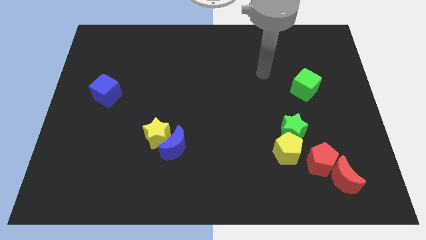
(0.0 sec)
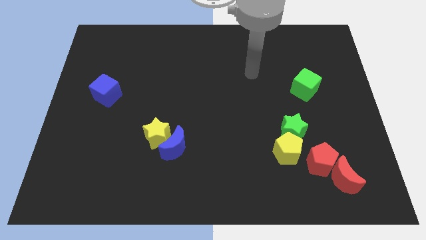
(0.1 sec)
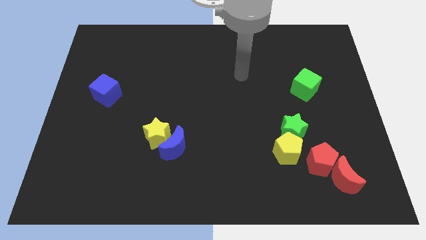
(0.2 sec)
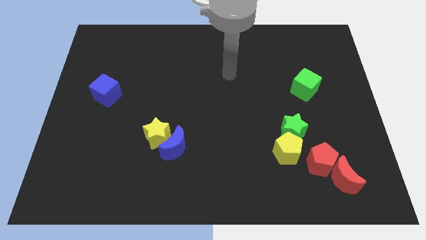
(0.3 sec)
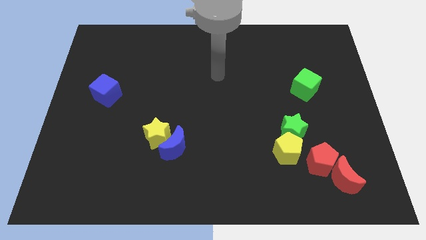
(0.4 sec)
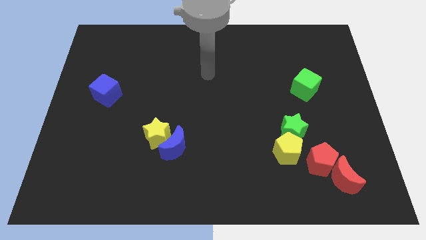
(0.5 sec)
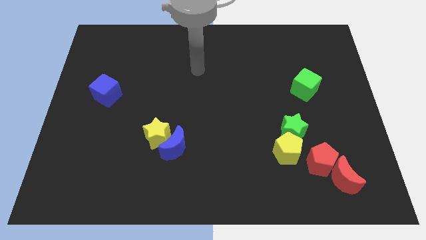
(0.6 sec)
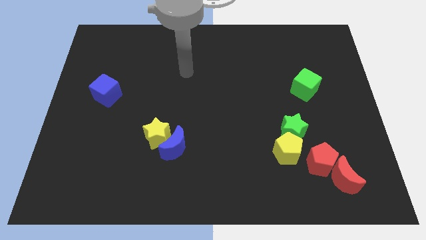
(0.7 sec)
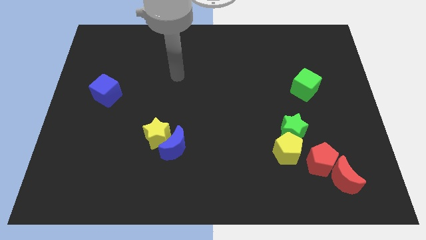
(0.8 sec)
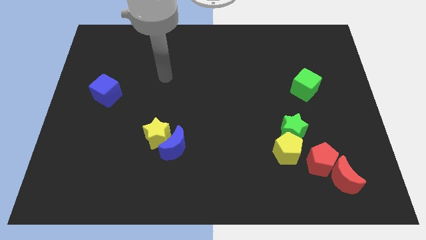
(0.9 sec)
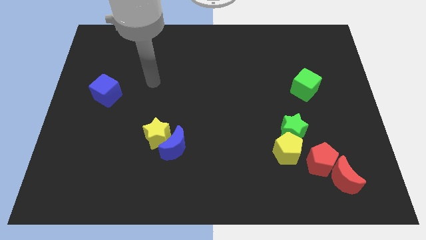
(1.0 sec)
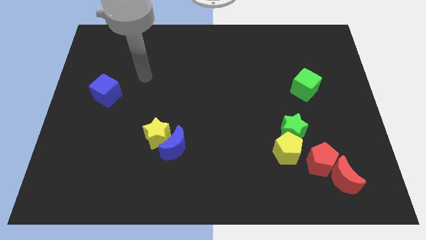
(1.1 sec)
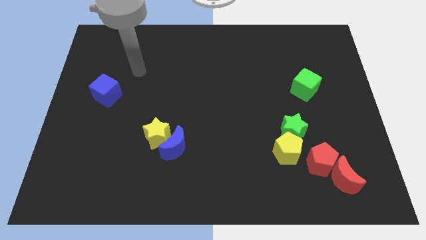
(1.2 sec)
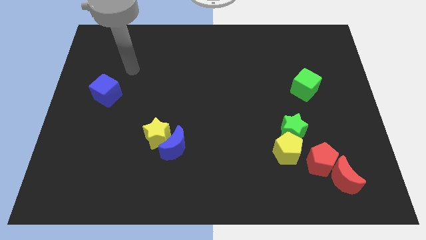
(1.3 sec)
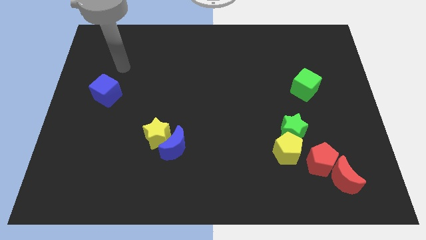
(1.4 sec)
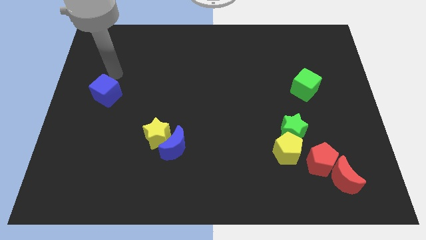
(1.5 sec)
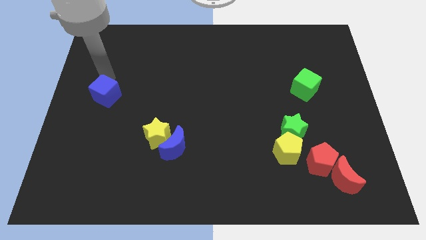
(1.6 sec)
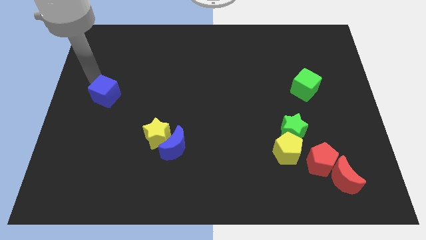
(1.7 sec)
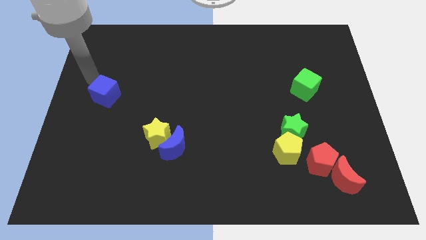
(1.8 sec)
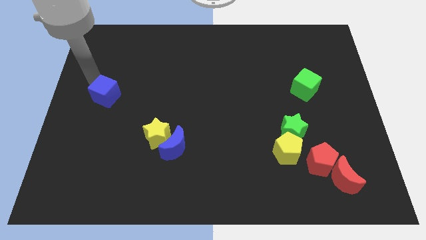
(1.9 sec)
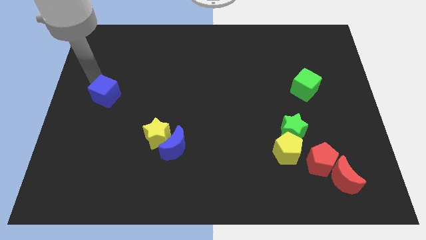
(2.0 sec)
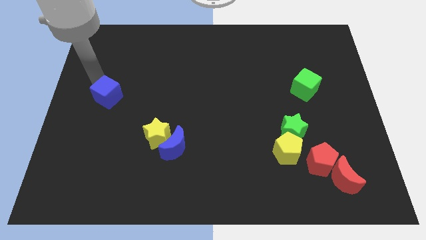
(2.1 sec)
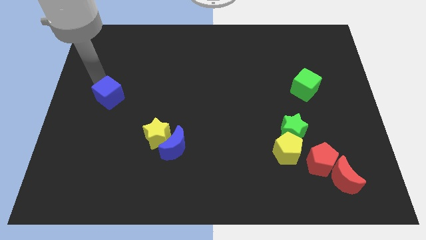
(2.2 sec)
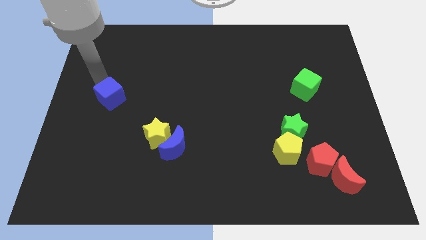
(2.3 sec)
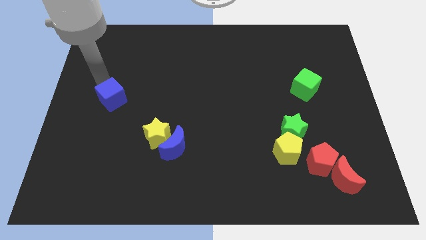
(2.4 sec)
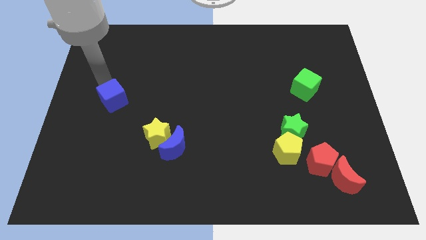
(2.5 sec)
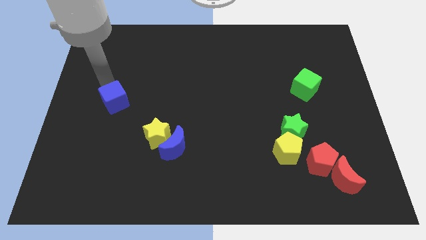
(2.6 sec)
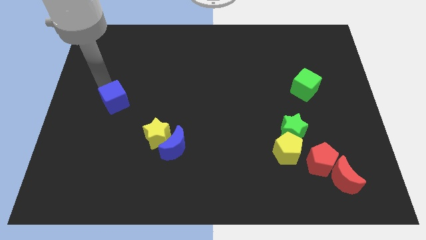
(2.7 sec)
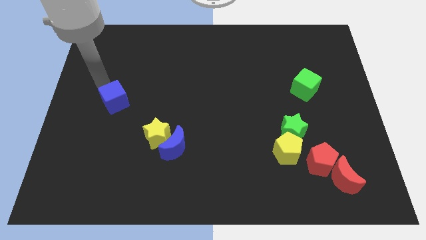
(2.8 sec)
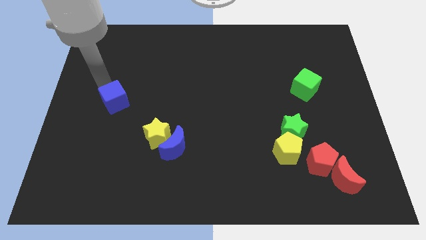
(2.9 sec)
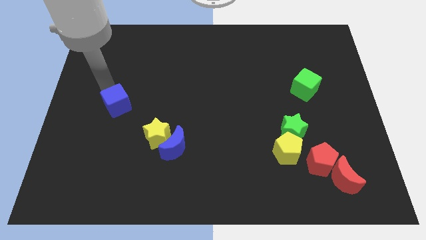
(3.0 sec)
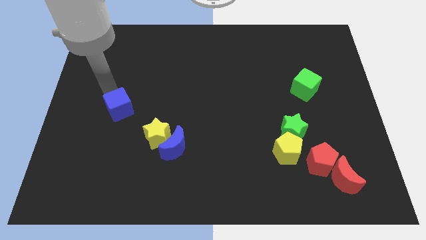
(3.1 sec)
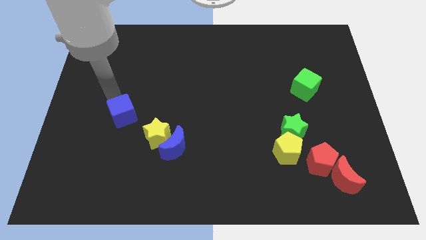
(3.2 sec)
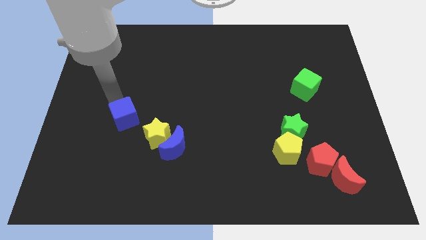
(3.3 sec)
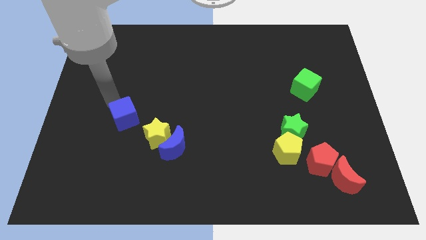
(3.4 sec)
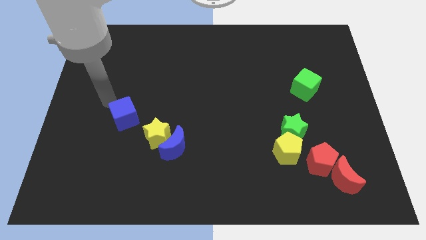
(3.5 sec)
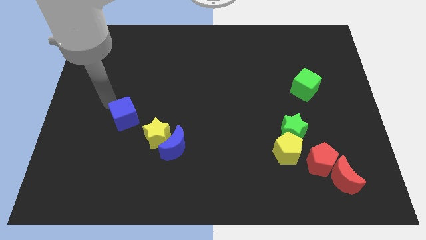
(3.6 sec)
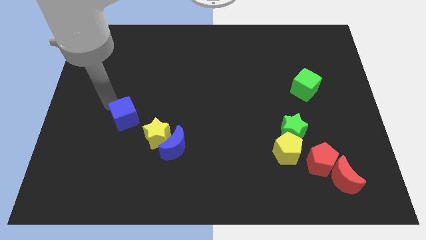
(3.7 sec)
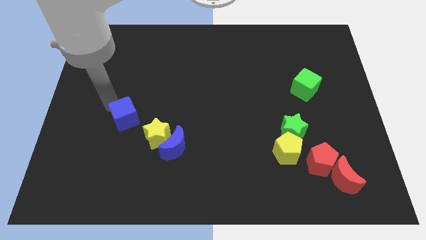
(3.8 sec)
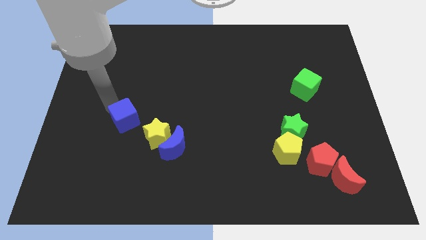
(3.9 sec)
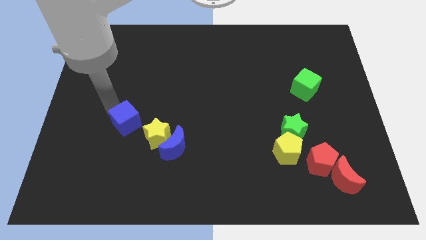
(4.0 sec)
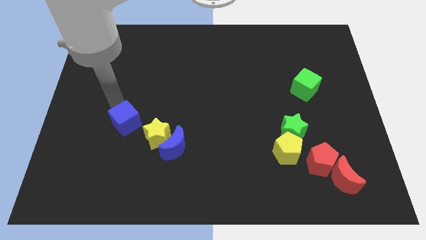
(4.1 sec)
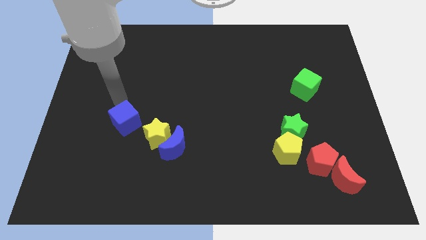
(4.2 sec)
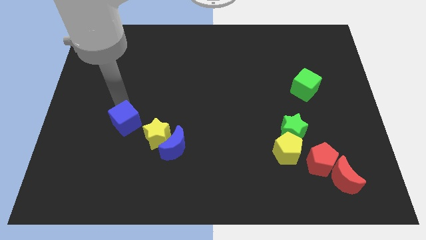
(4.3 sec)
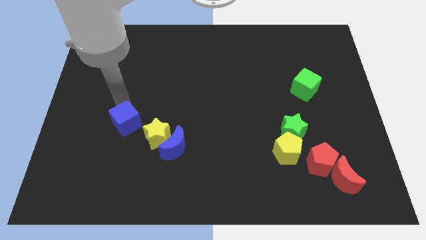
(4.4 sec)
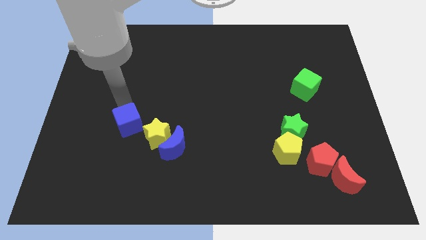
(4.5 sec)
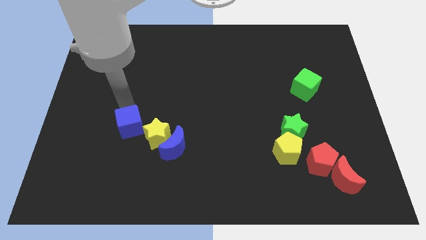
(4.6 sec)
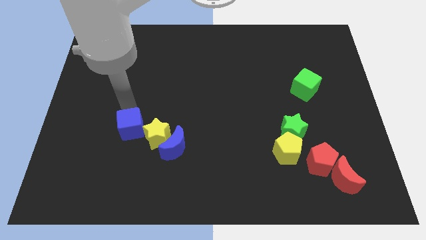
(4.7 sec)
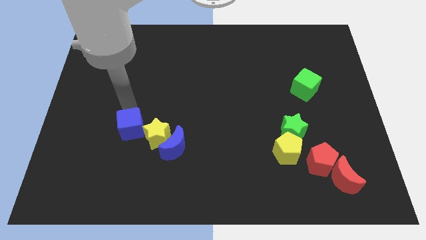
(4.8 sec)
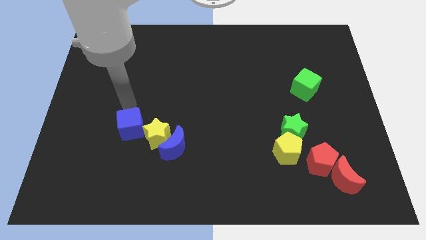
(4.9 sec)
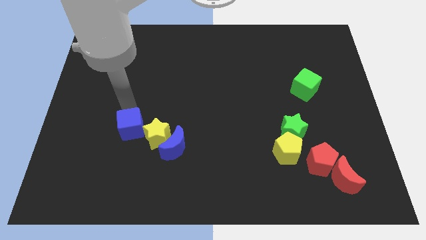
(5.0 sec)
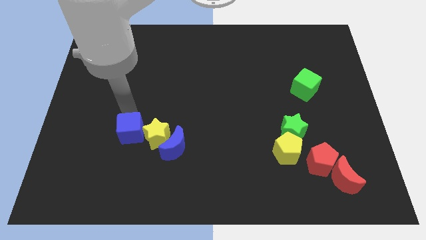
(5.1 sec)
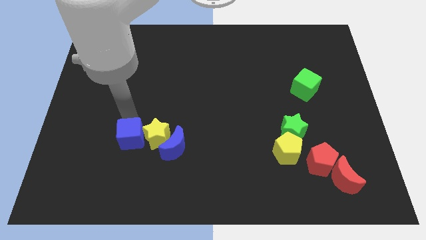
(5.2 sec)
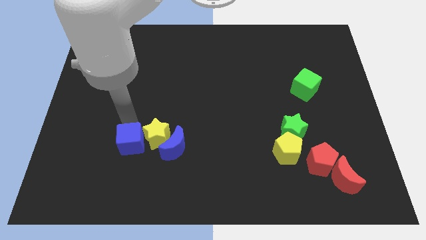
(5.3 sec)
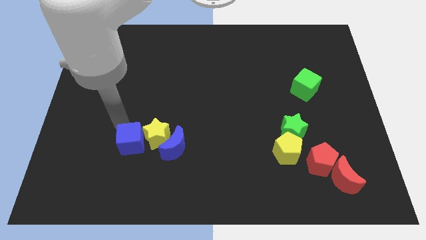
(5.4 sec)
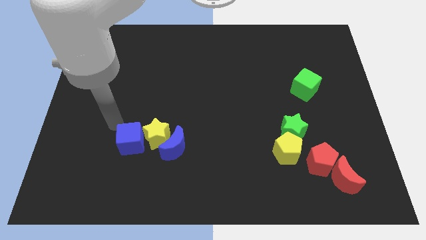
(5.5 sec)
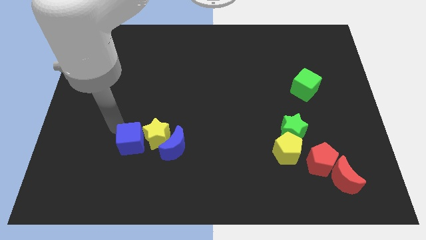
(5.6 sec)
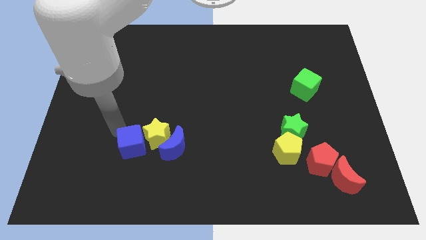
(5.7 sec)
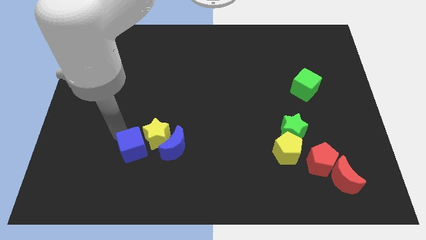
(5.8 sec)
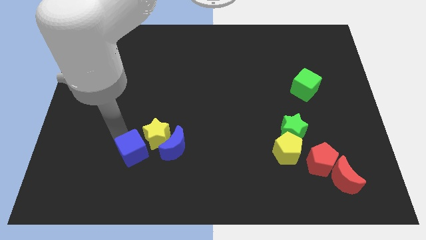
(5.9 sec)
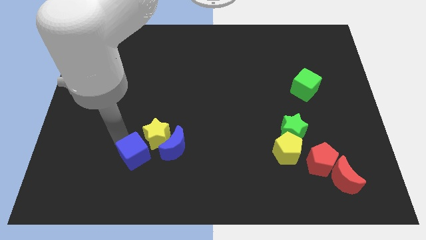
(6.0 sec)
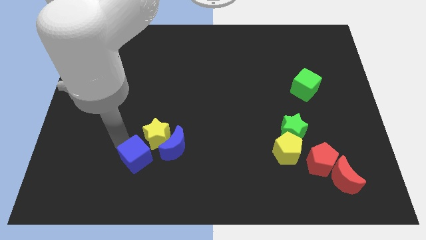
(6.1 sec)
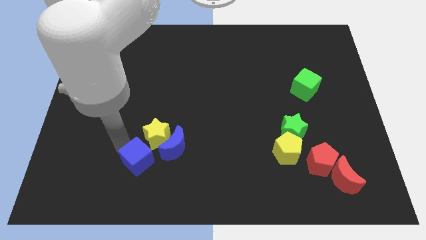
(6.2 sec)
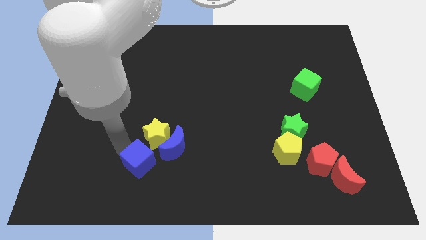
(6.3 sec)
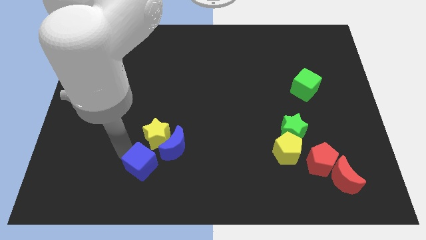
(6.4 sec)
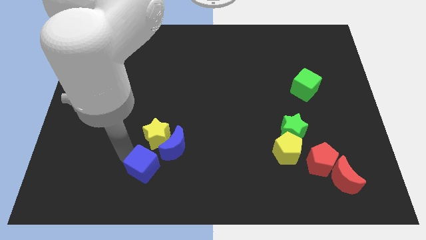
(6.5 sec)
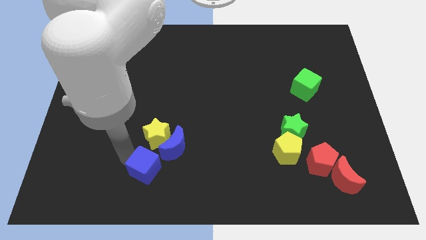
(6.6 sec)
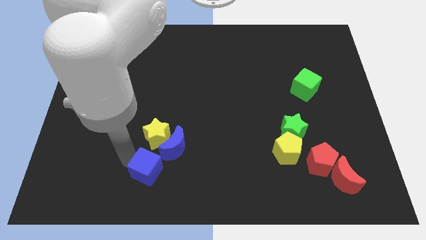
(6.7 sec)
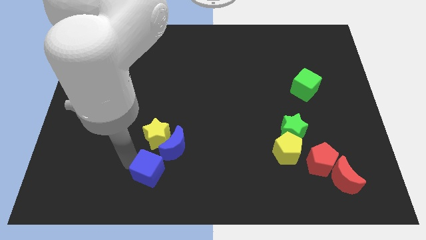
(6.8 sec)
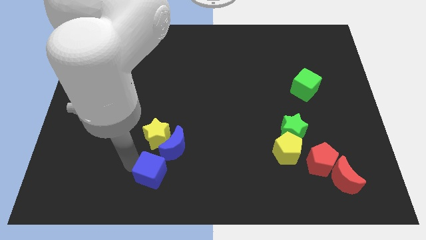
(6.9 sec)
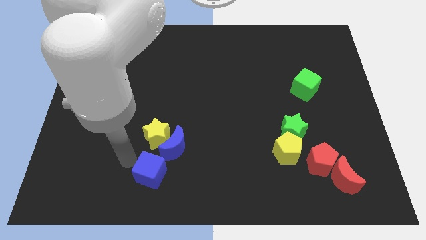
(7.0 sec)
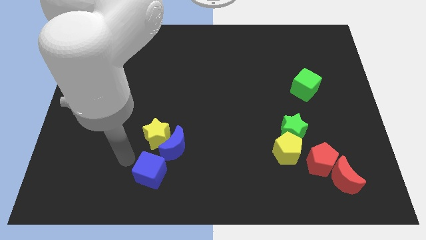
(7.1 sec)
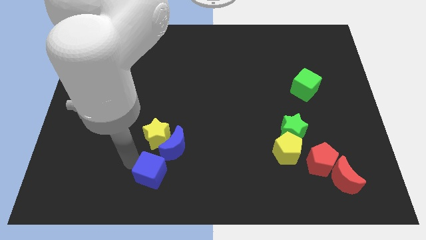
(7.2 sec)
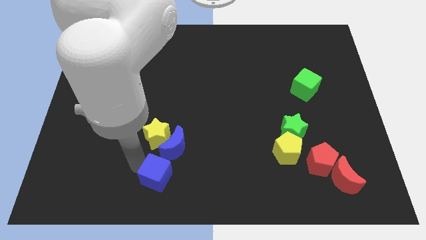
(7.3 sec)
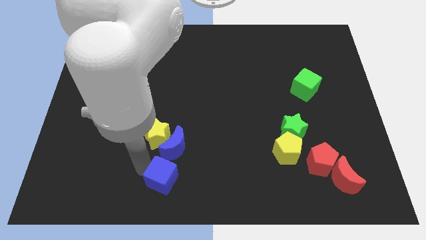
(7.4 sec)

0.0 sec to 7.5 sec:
put the blue cube to the bottom side
